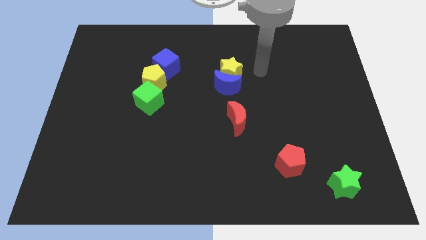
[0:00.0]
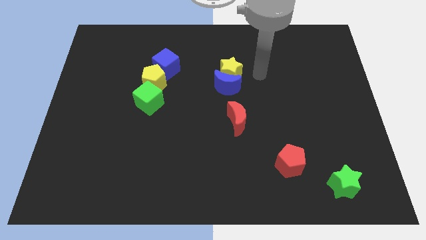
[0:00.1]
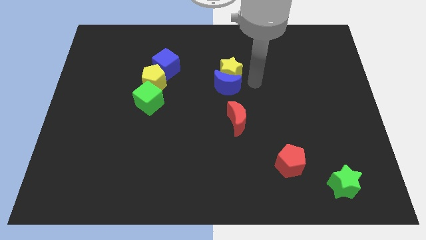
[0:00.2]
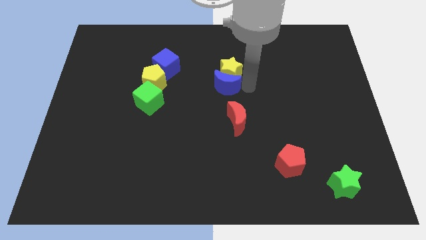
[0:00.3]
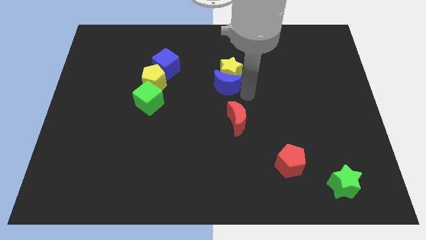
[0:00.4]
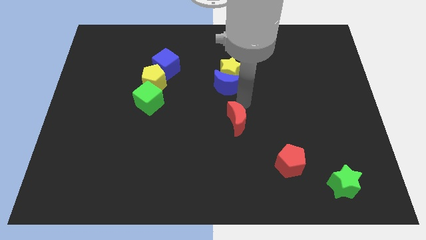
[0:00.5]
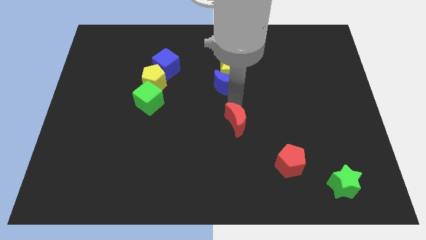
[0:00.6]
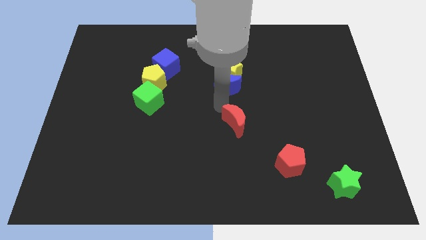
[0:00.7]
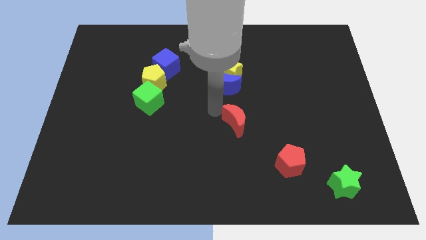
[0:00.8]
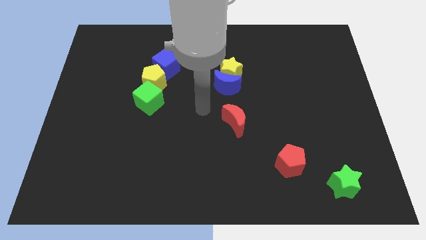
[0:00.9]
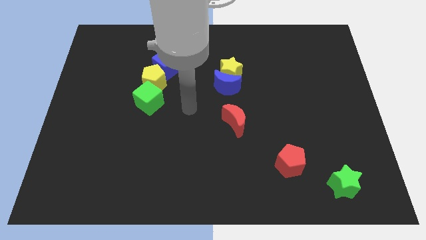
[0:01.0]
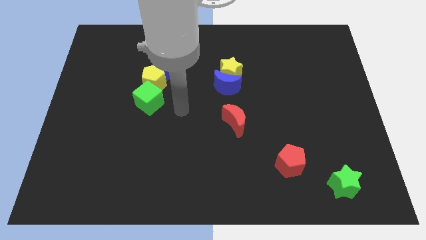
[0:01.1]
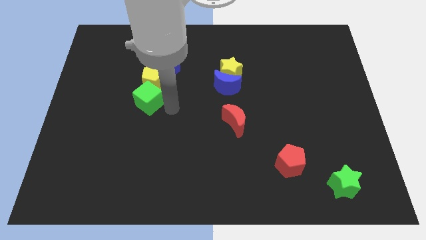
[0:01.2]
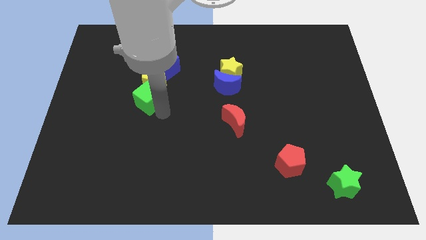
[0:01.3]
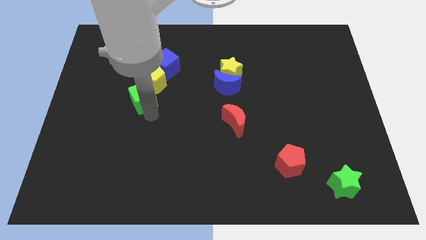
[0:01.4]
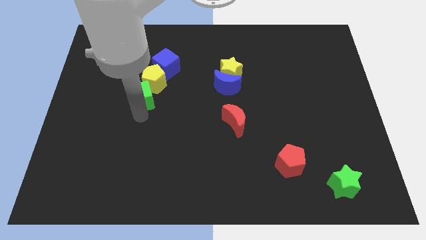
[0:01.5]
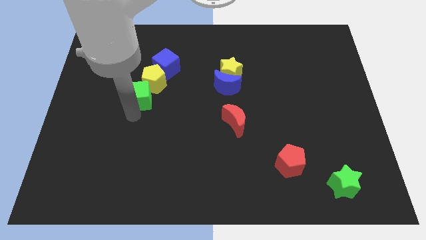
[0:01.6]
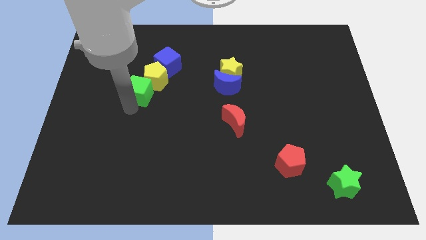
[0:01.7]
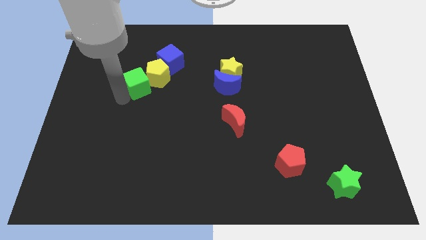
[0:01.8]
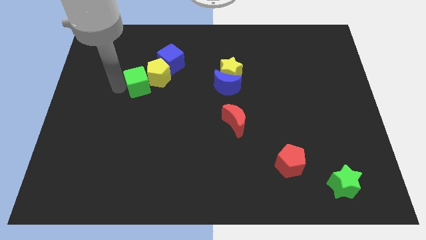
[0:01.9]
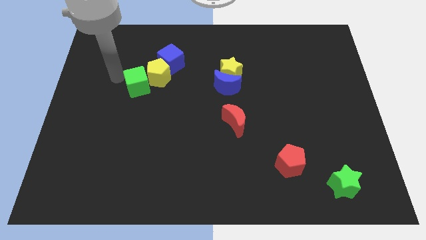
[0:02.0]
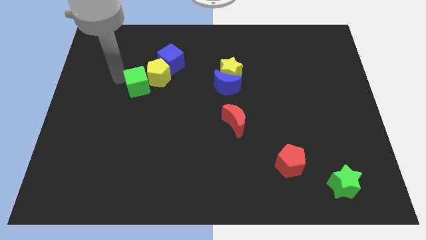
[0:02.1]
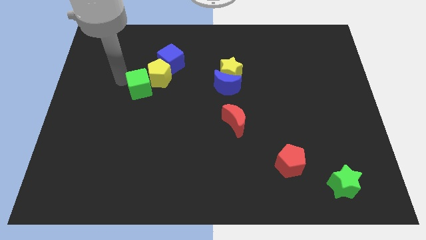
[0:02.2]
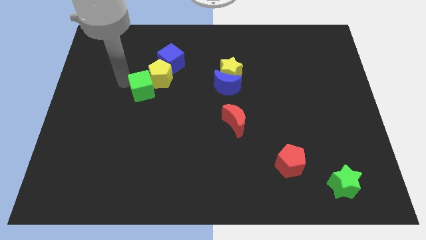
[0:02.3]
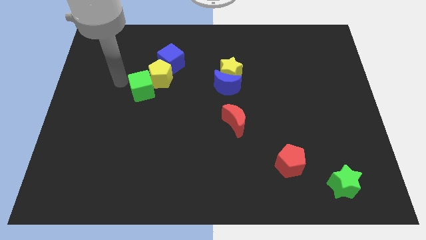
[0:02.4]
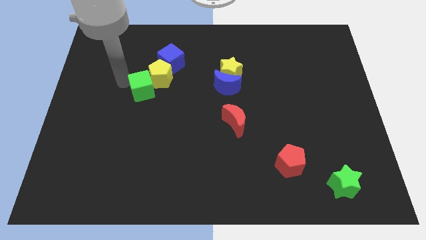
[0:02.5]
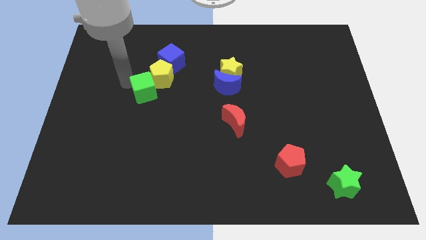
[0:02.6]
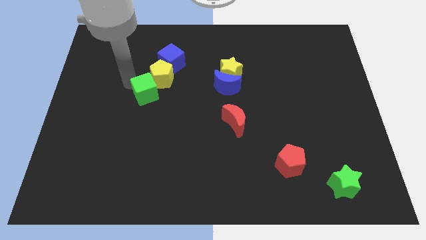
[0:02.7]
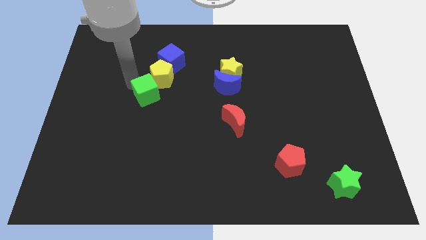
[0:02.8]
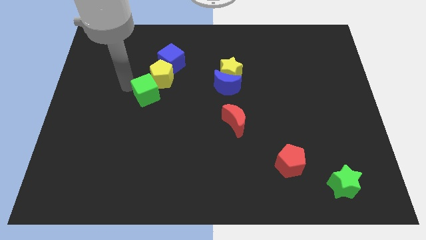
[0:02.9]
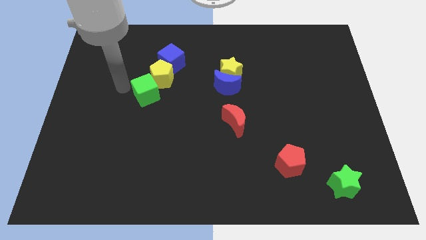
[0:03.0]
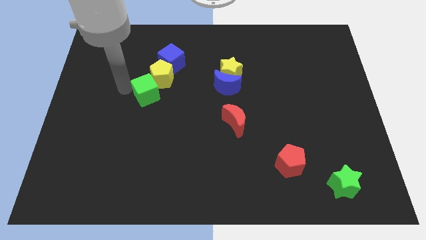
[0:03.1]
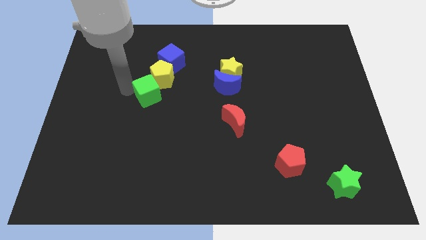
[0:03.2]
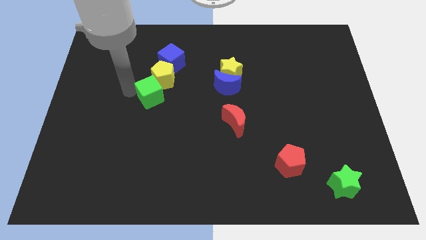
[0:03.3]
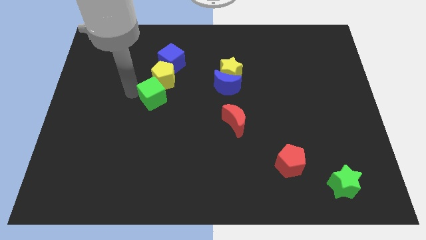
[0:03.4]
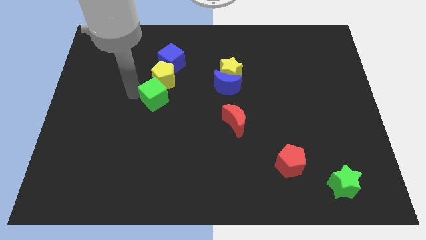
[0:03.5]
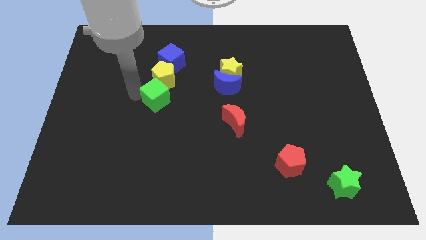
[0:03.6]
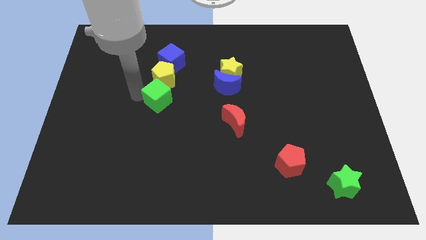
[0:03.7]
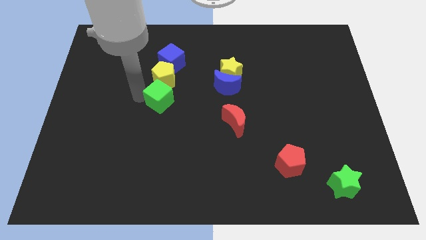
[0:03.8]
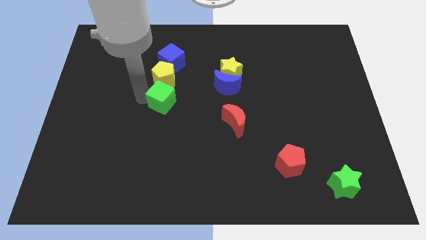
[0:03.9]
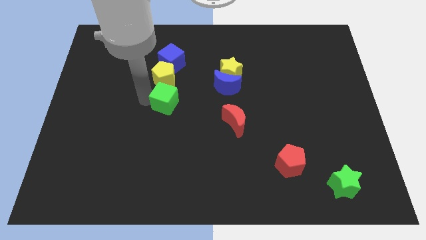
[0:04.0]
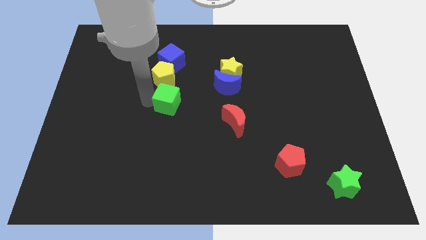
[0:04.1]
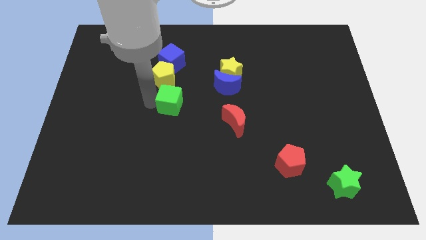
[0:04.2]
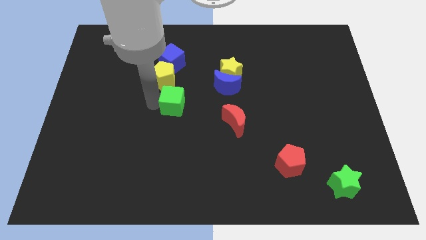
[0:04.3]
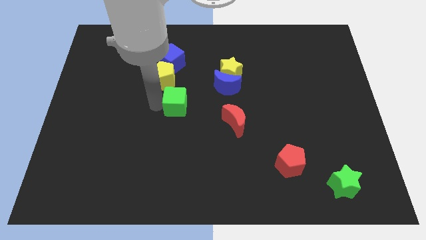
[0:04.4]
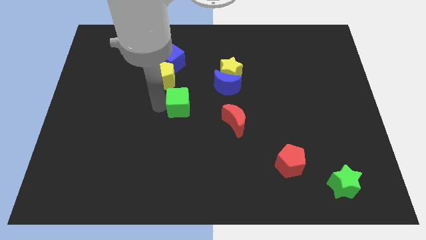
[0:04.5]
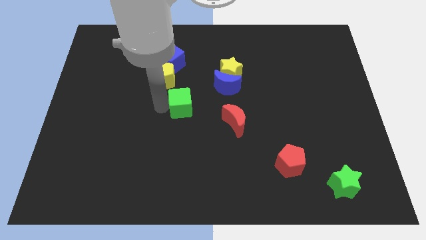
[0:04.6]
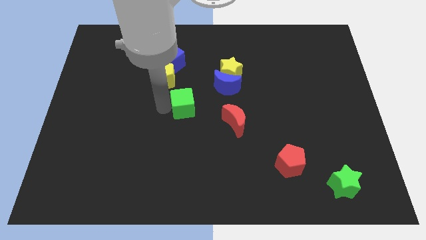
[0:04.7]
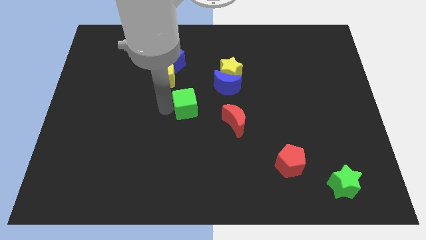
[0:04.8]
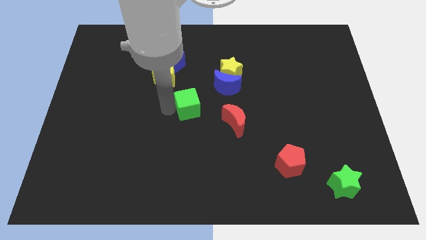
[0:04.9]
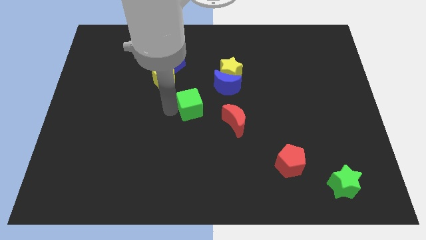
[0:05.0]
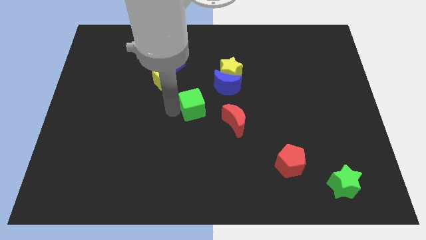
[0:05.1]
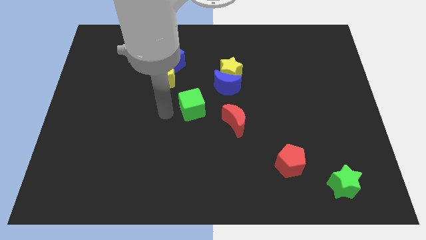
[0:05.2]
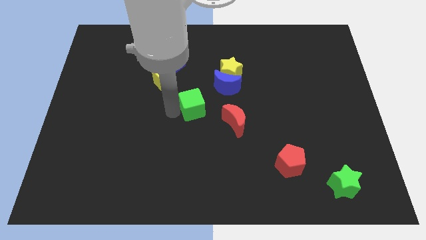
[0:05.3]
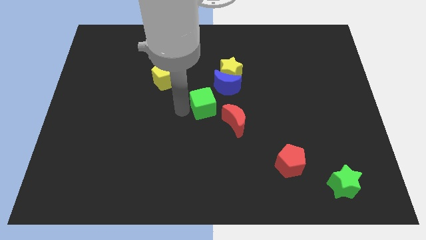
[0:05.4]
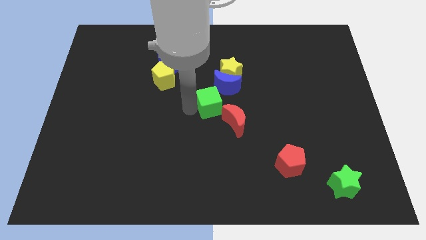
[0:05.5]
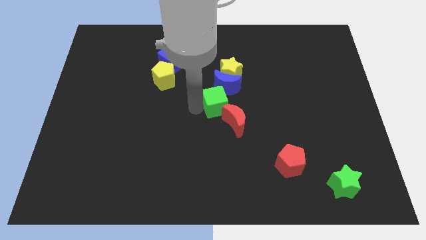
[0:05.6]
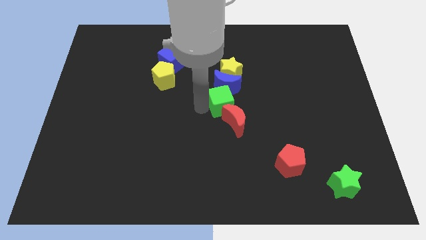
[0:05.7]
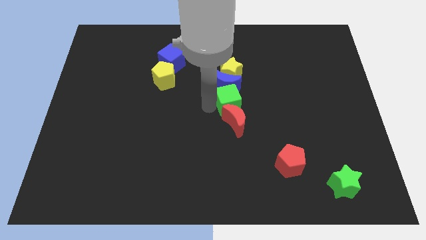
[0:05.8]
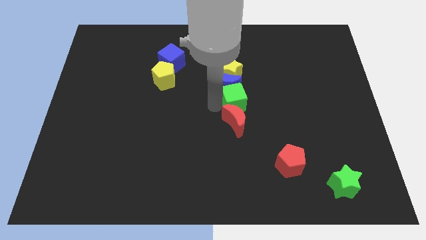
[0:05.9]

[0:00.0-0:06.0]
slide the green cube right

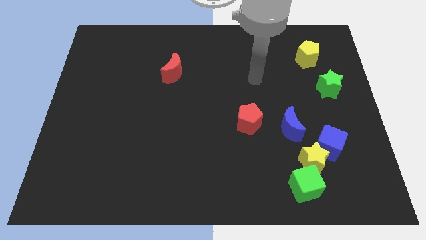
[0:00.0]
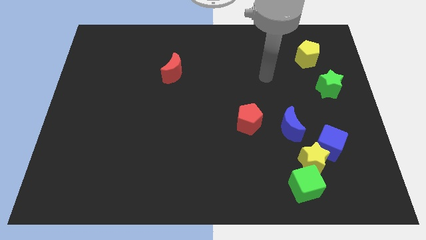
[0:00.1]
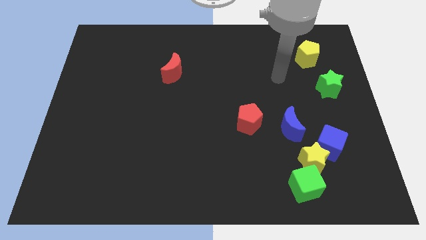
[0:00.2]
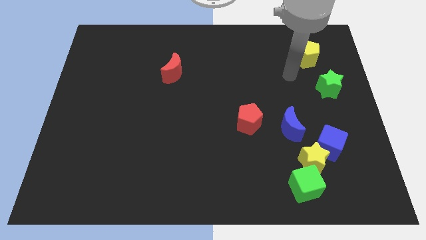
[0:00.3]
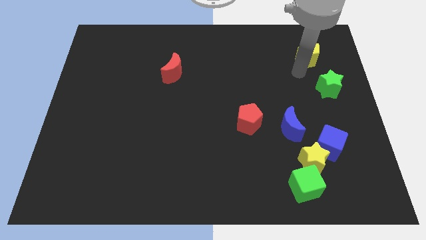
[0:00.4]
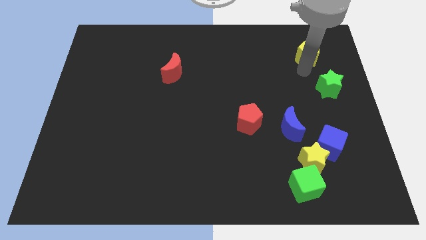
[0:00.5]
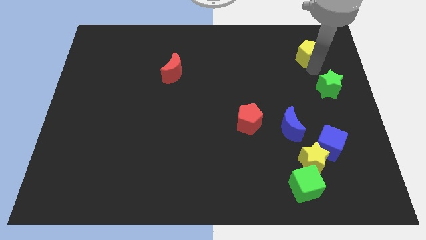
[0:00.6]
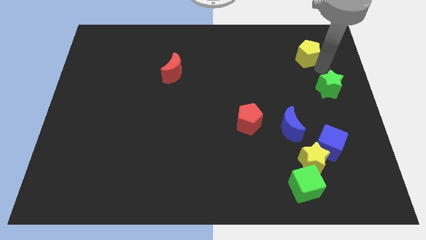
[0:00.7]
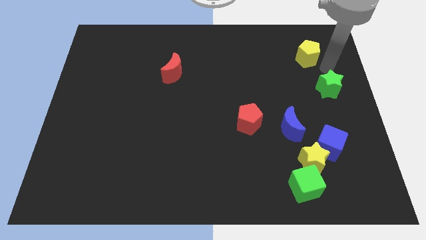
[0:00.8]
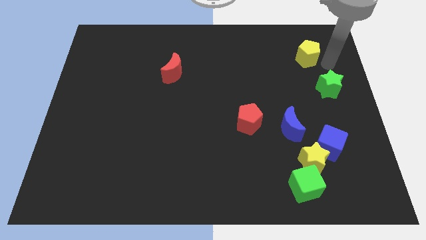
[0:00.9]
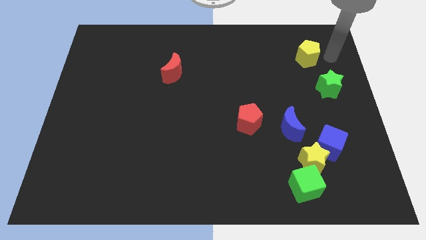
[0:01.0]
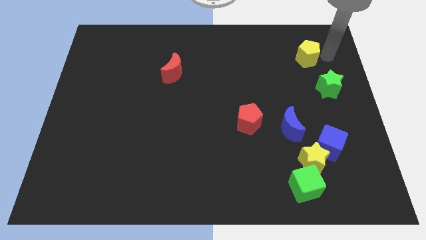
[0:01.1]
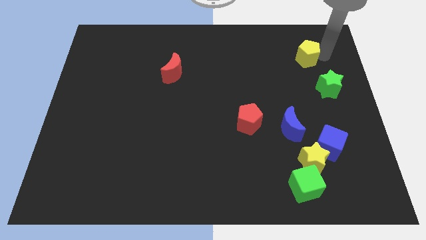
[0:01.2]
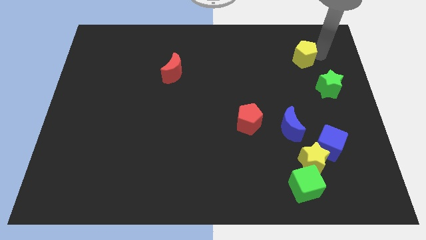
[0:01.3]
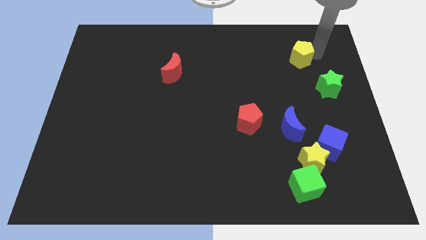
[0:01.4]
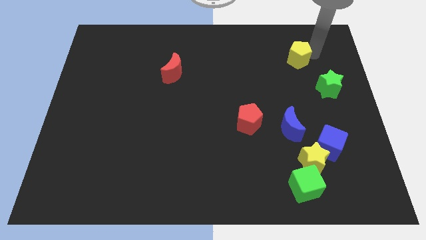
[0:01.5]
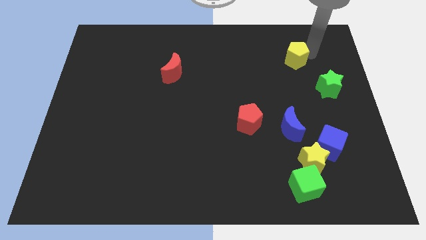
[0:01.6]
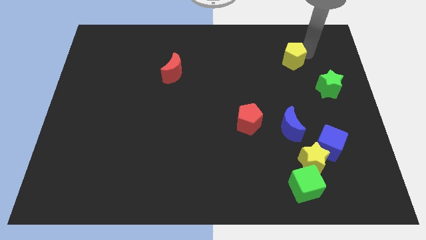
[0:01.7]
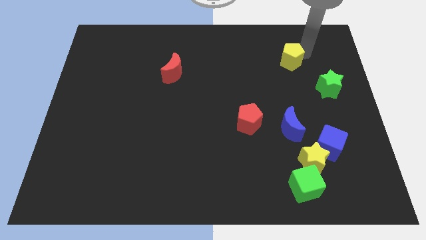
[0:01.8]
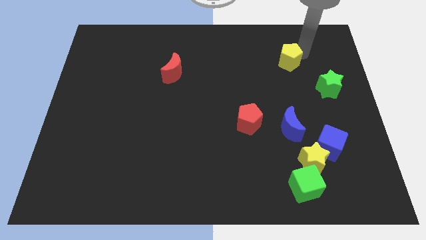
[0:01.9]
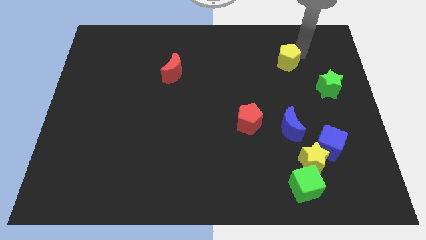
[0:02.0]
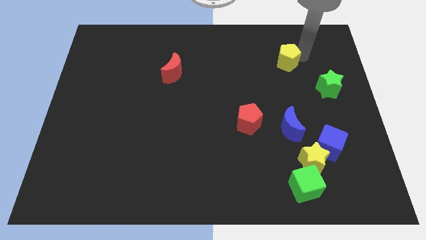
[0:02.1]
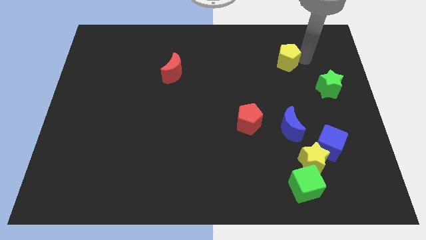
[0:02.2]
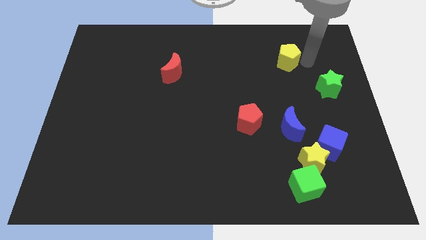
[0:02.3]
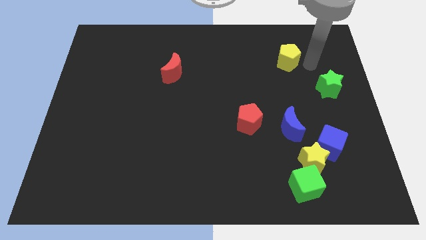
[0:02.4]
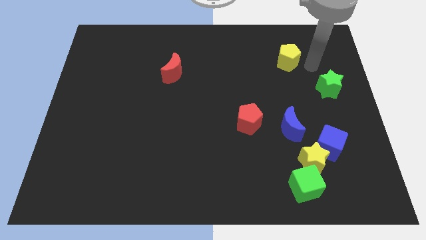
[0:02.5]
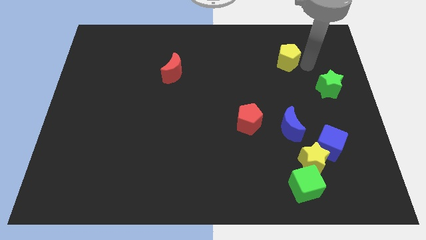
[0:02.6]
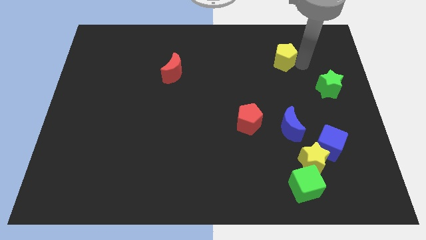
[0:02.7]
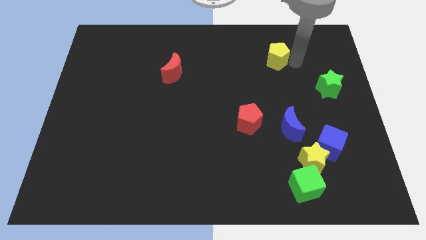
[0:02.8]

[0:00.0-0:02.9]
move the yellow pentagon to the left a little bit
